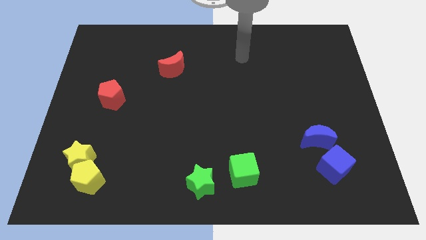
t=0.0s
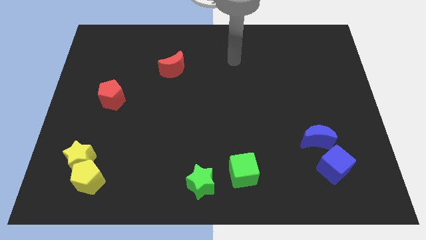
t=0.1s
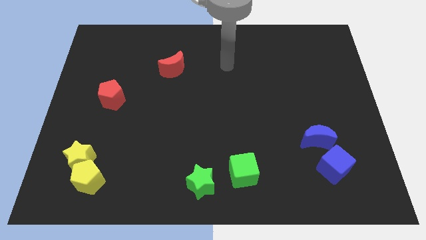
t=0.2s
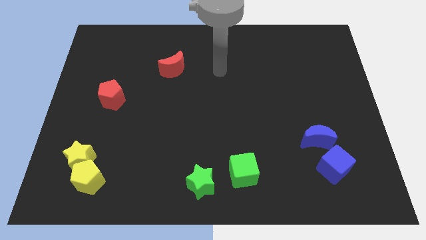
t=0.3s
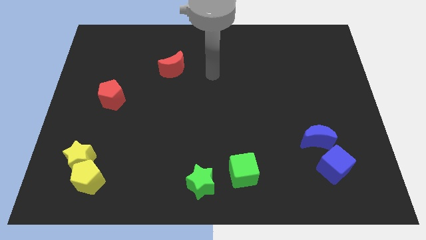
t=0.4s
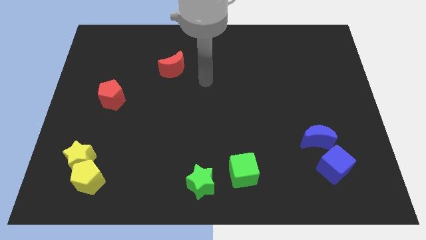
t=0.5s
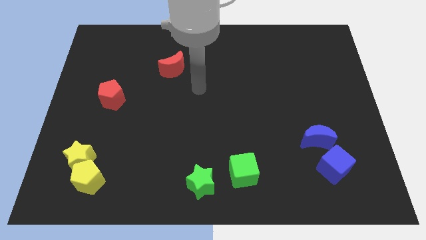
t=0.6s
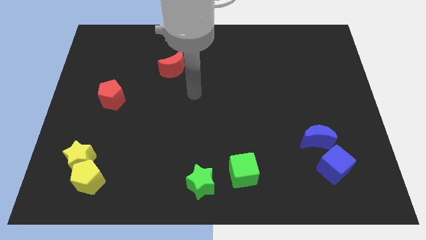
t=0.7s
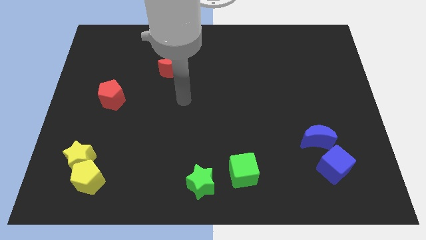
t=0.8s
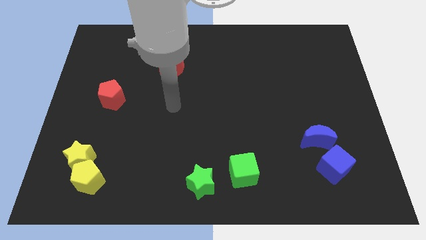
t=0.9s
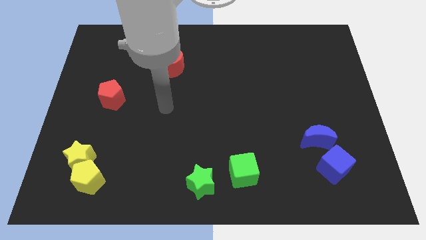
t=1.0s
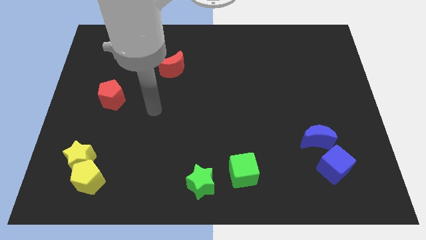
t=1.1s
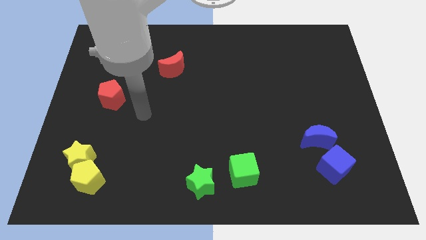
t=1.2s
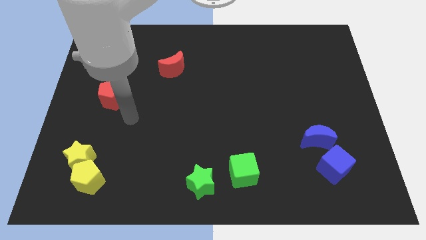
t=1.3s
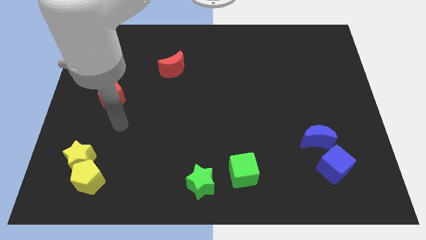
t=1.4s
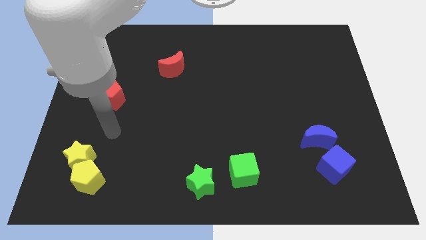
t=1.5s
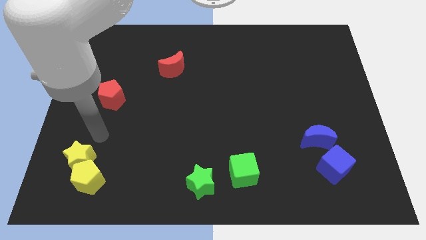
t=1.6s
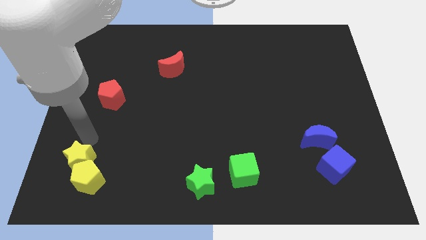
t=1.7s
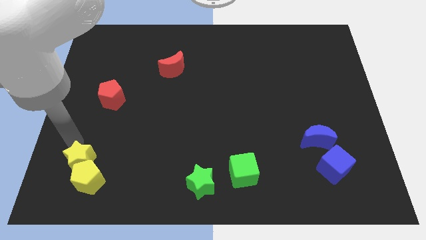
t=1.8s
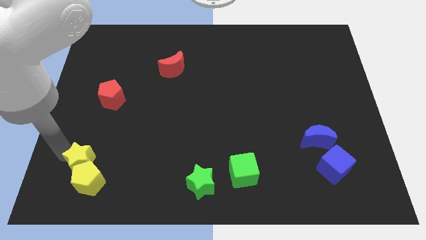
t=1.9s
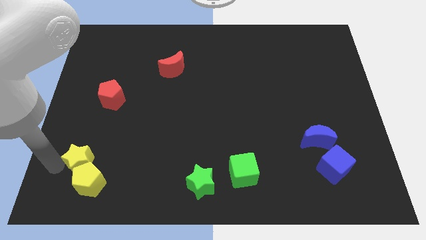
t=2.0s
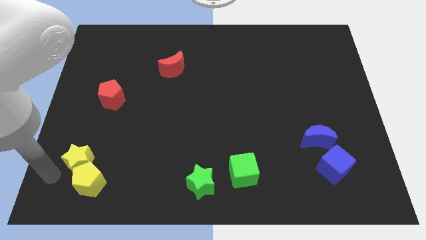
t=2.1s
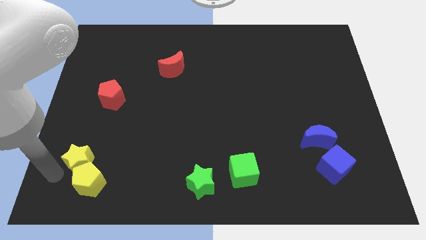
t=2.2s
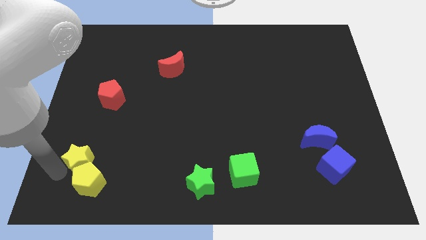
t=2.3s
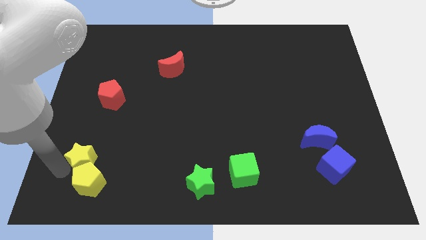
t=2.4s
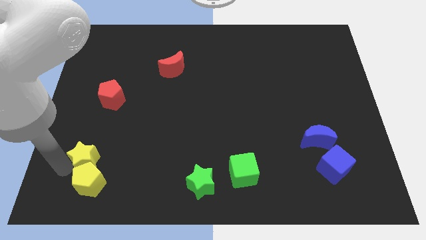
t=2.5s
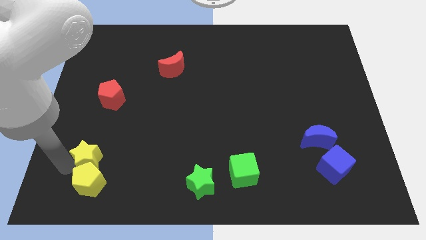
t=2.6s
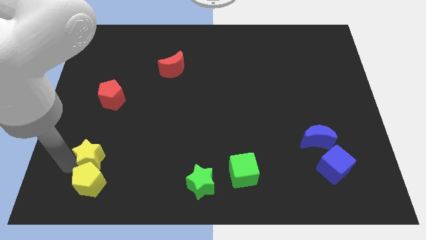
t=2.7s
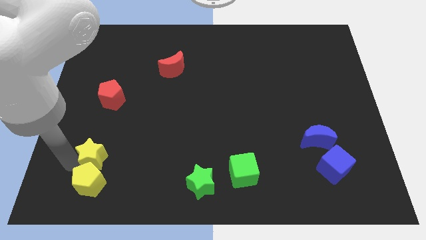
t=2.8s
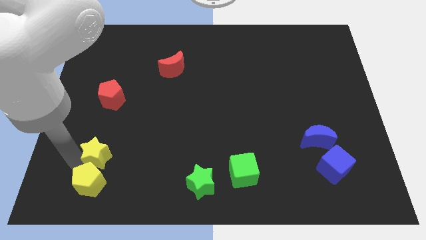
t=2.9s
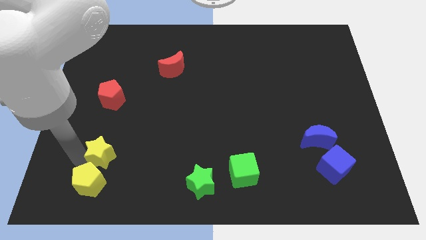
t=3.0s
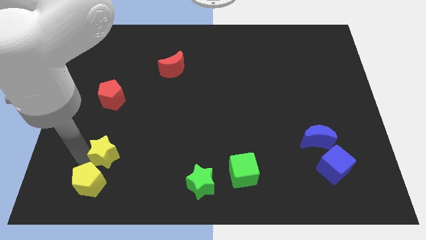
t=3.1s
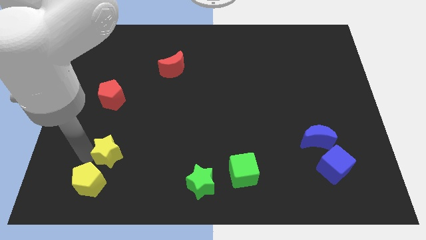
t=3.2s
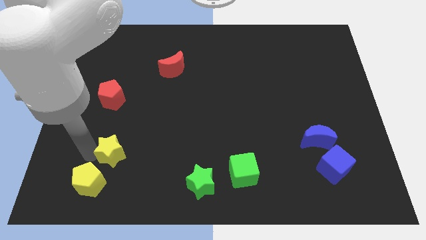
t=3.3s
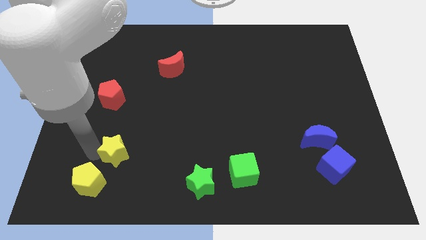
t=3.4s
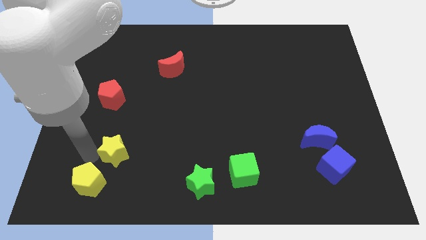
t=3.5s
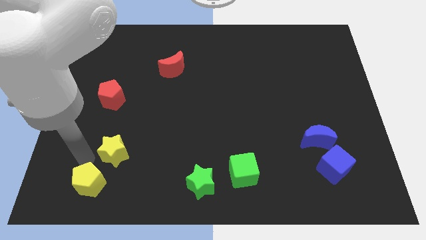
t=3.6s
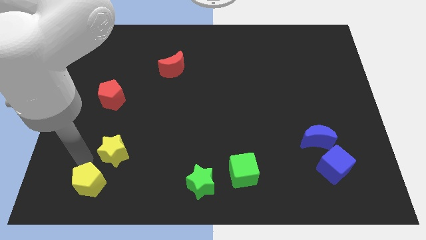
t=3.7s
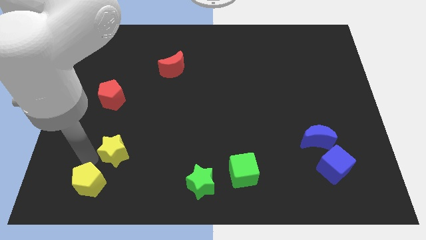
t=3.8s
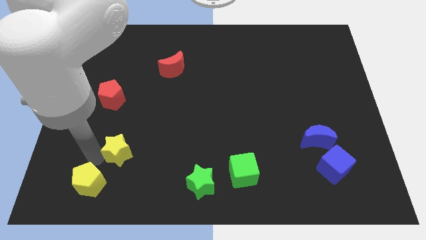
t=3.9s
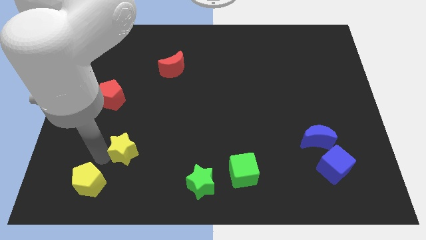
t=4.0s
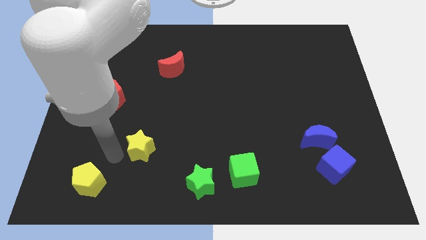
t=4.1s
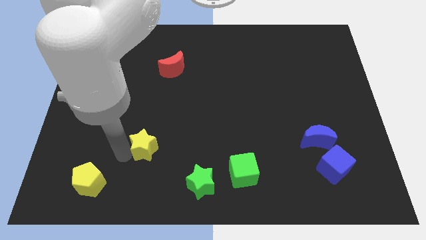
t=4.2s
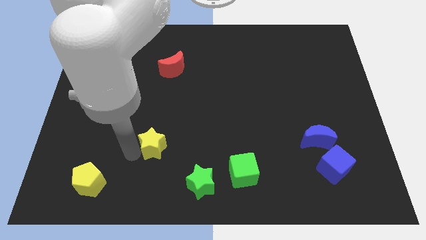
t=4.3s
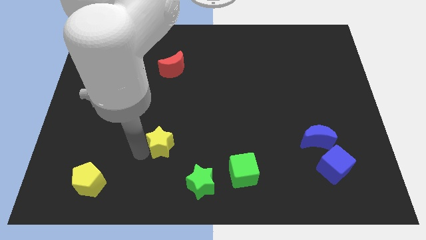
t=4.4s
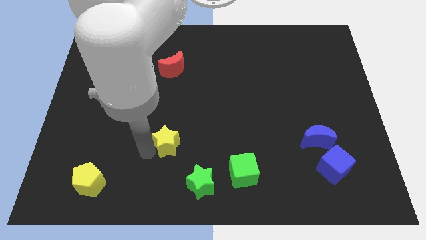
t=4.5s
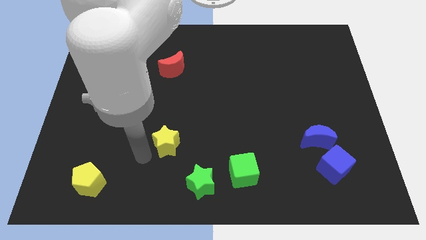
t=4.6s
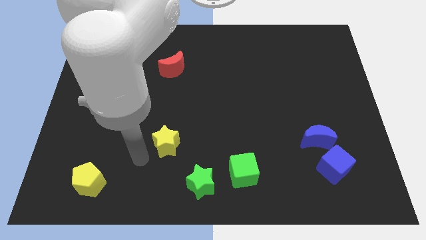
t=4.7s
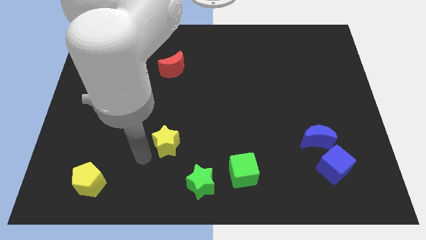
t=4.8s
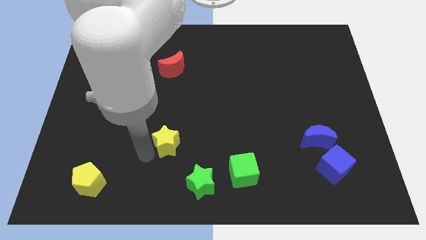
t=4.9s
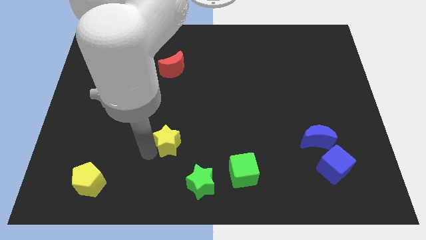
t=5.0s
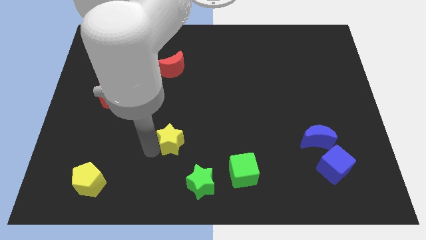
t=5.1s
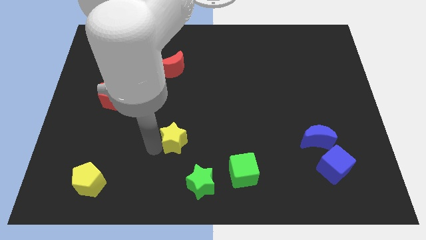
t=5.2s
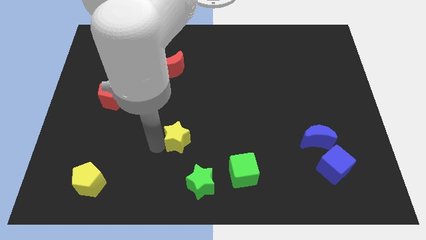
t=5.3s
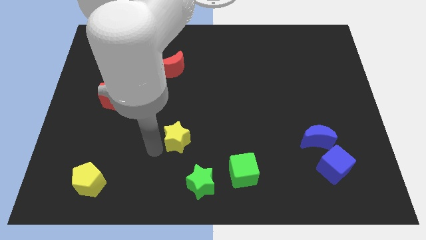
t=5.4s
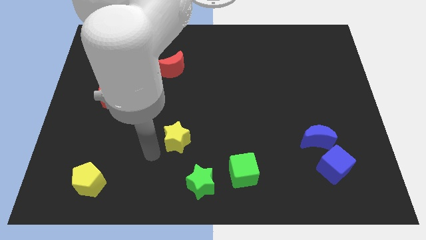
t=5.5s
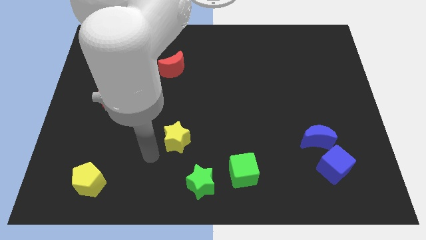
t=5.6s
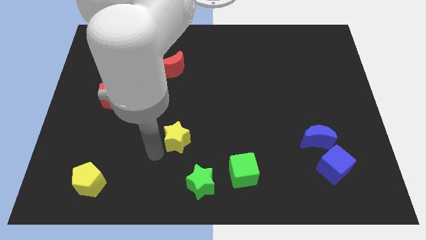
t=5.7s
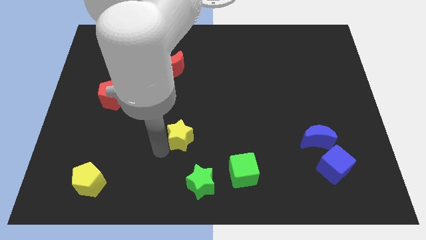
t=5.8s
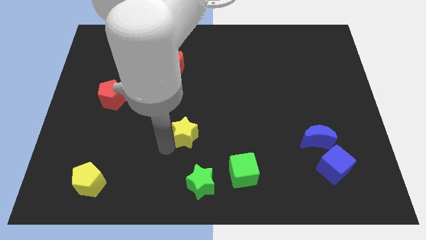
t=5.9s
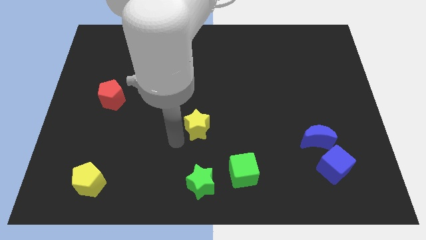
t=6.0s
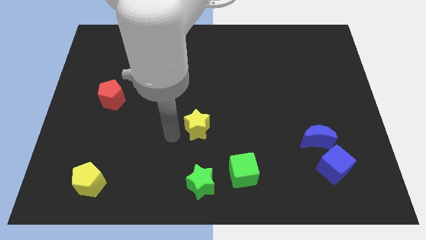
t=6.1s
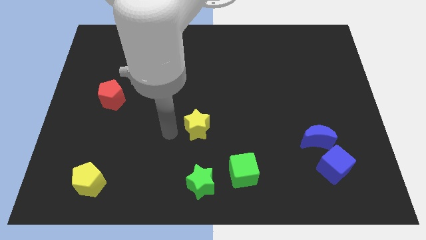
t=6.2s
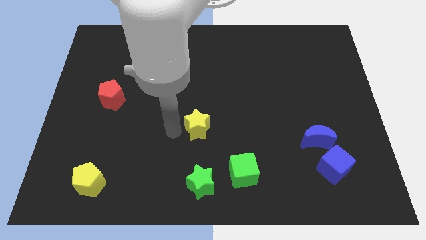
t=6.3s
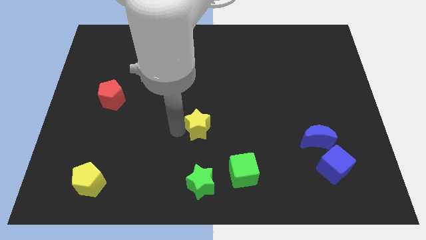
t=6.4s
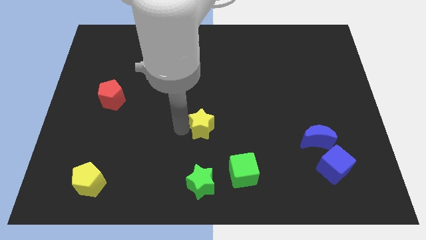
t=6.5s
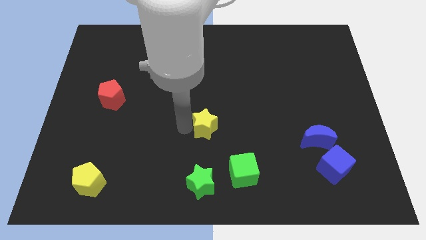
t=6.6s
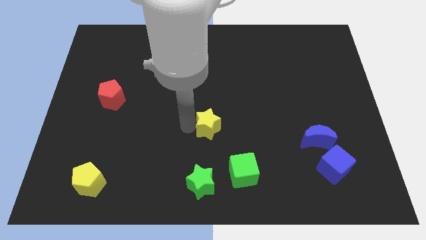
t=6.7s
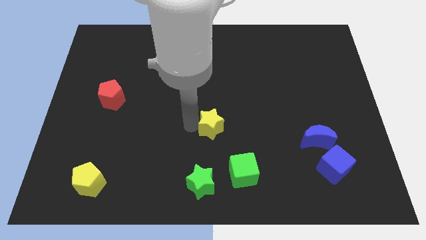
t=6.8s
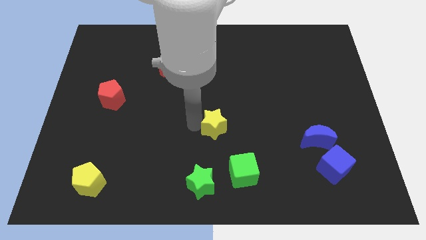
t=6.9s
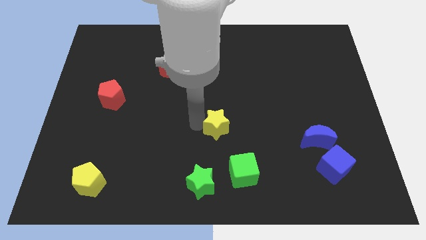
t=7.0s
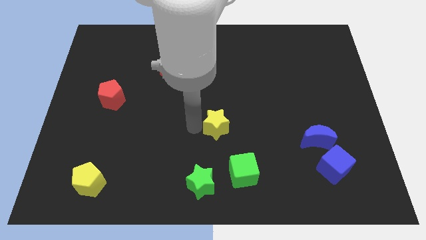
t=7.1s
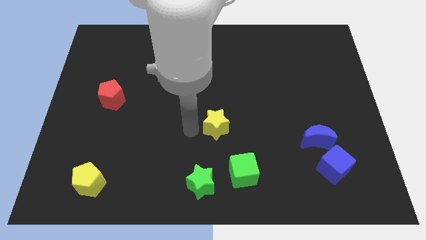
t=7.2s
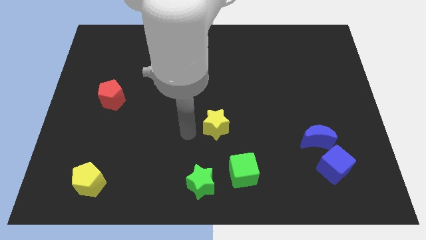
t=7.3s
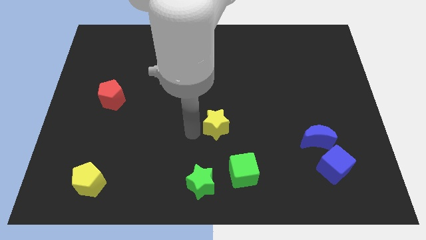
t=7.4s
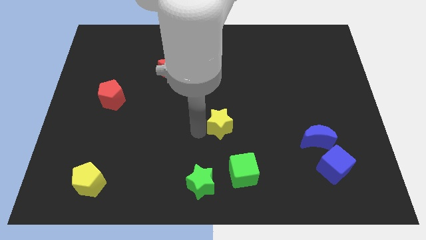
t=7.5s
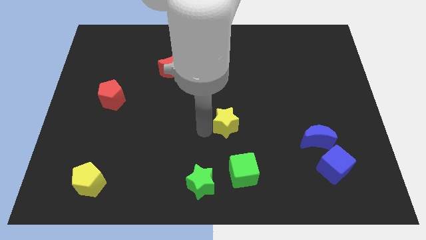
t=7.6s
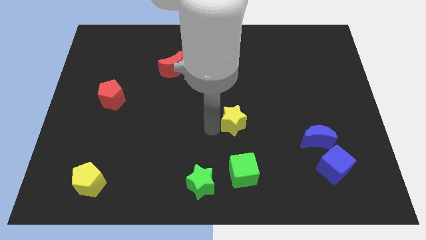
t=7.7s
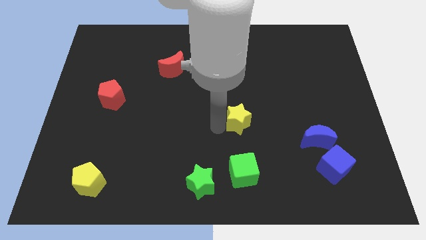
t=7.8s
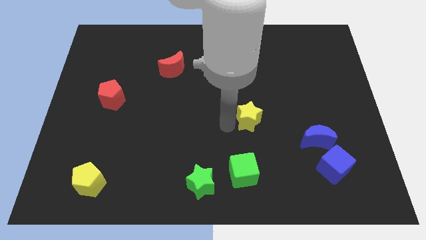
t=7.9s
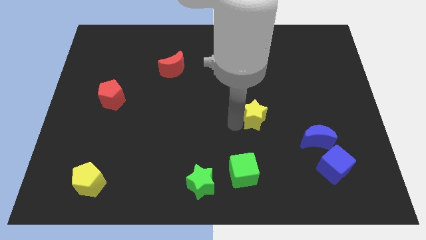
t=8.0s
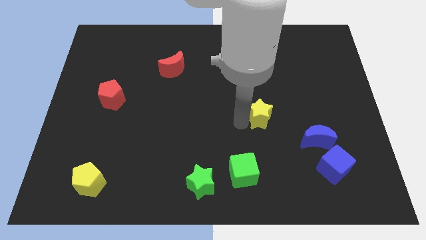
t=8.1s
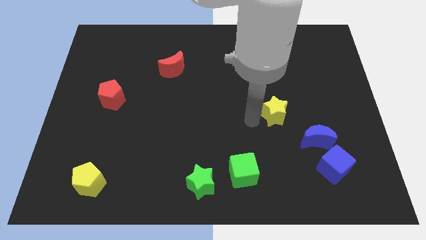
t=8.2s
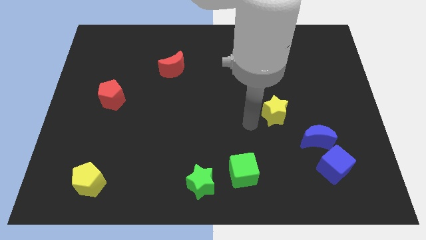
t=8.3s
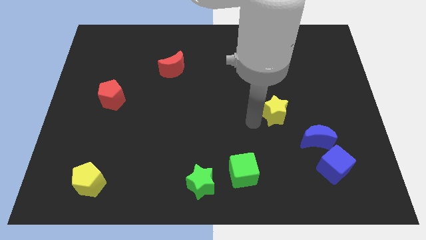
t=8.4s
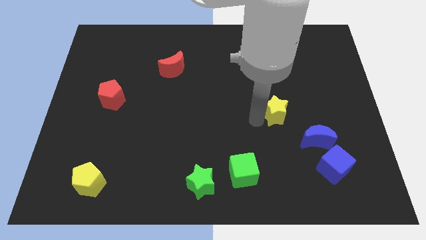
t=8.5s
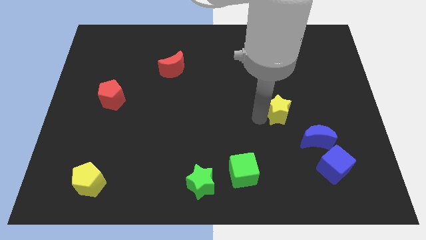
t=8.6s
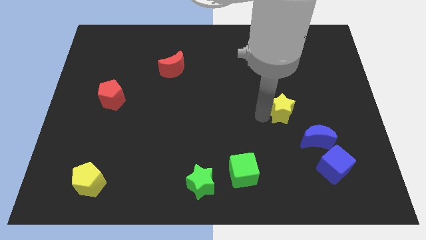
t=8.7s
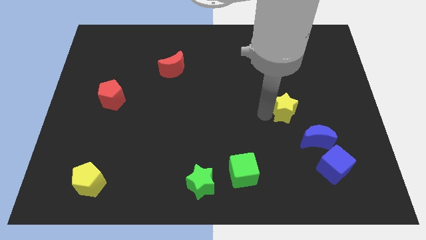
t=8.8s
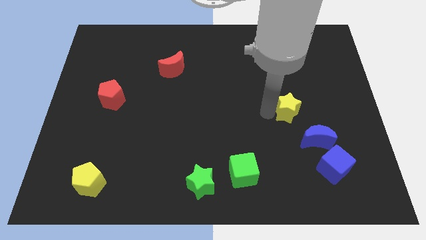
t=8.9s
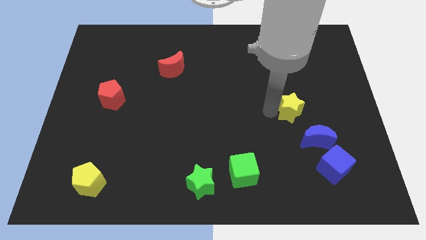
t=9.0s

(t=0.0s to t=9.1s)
put the yellow star to the top side of the blue moon
